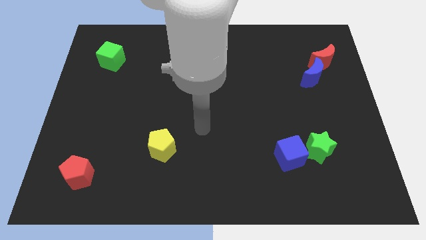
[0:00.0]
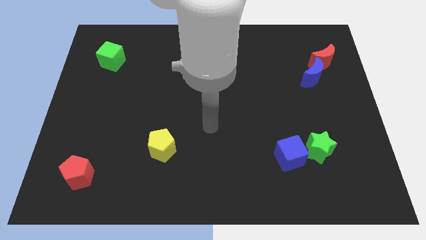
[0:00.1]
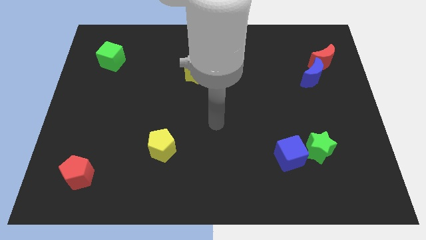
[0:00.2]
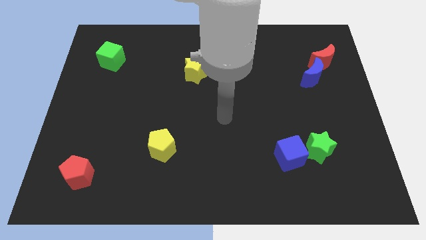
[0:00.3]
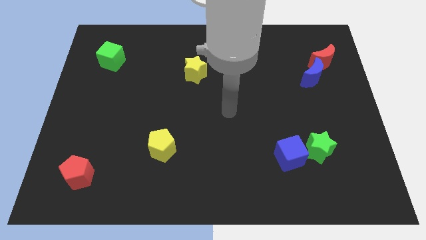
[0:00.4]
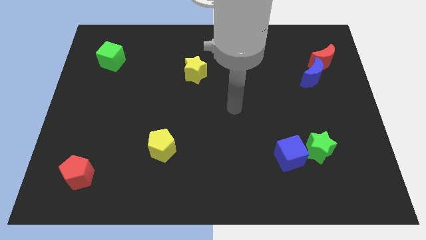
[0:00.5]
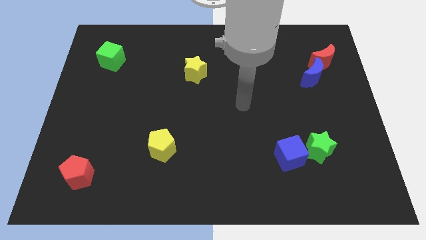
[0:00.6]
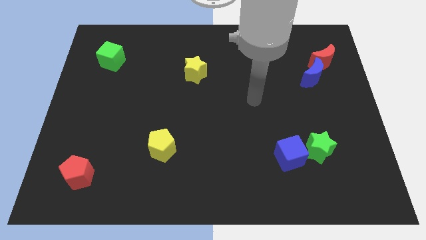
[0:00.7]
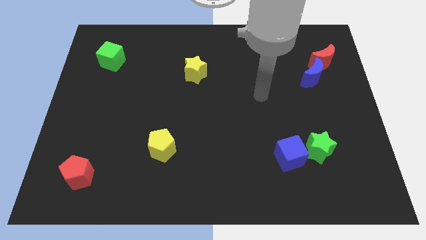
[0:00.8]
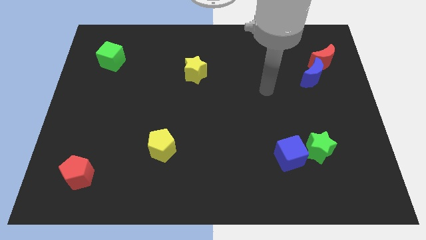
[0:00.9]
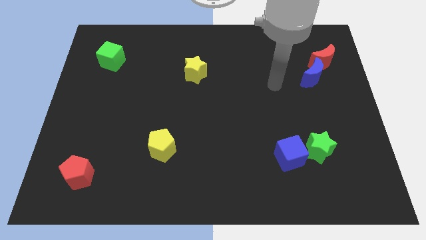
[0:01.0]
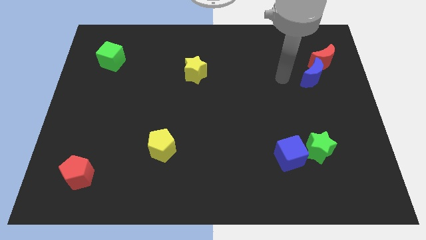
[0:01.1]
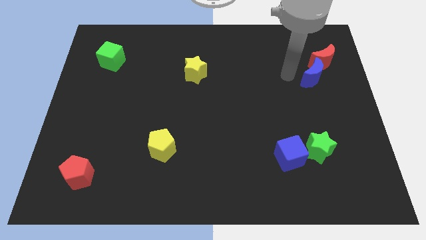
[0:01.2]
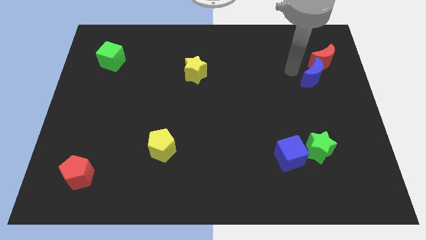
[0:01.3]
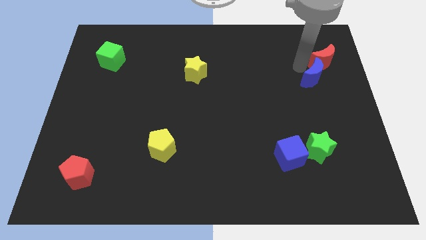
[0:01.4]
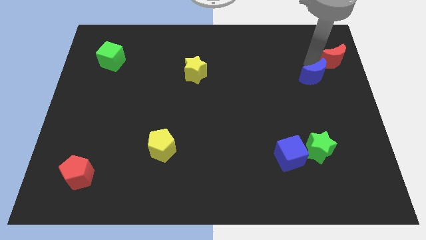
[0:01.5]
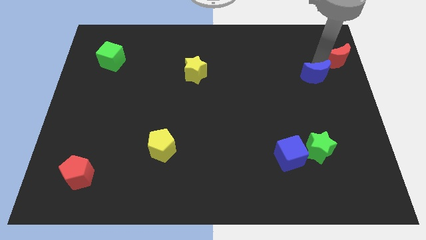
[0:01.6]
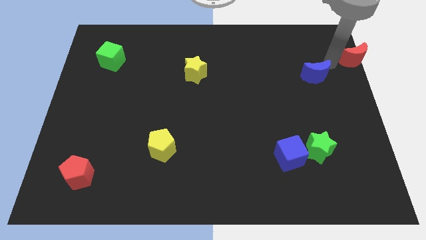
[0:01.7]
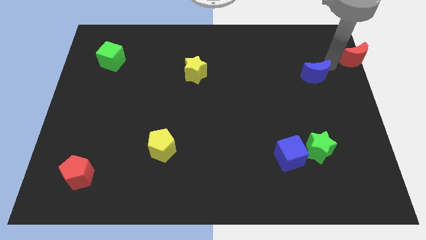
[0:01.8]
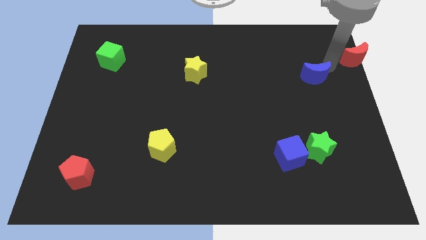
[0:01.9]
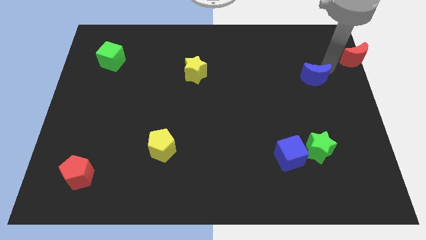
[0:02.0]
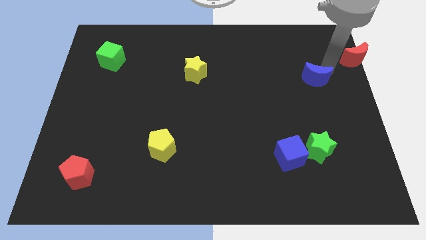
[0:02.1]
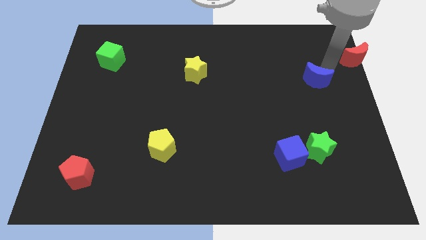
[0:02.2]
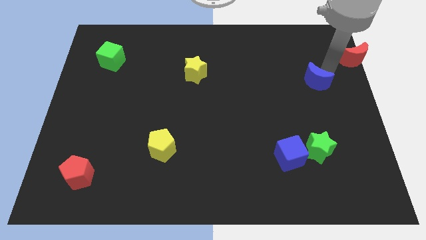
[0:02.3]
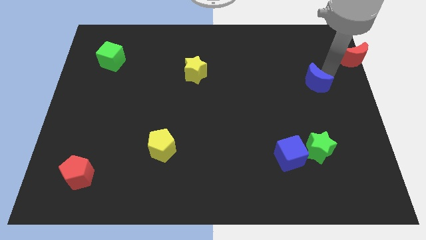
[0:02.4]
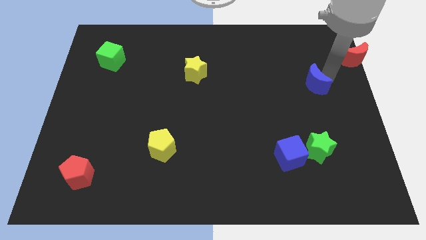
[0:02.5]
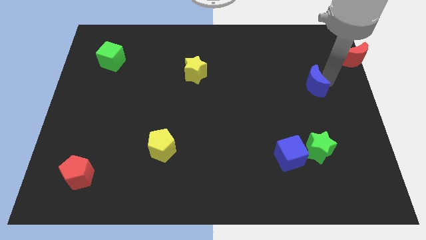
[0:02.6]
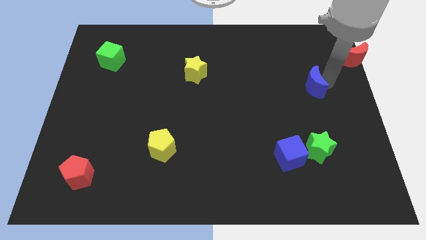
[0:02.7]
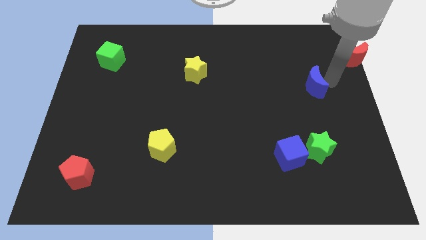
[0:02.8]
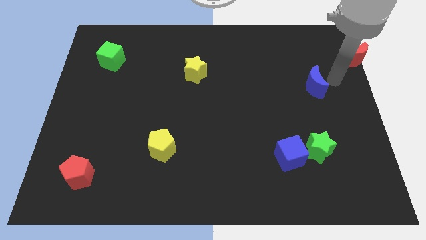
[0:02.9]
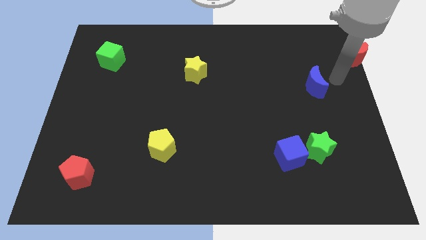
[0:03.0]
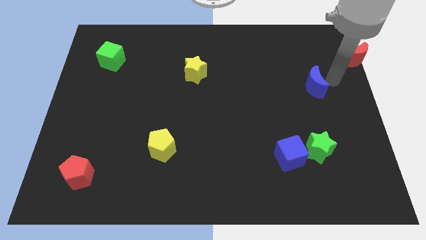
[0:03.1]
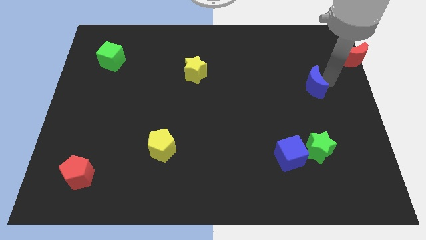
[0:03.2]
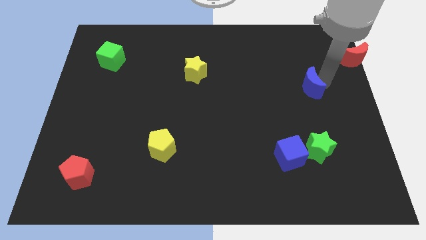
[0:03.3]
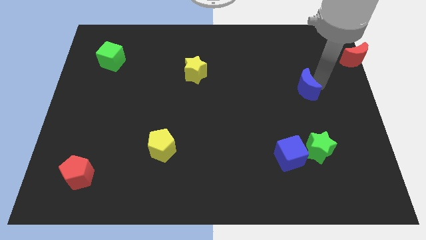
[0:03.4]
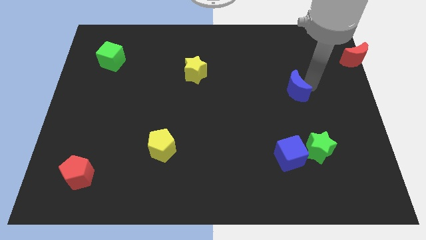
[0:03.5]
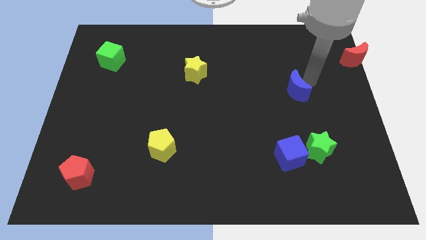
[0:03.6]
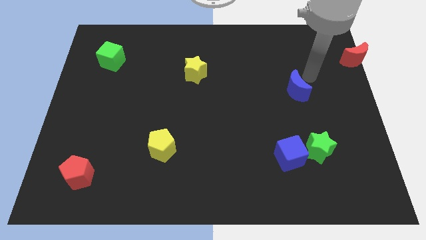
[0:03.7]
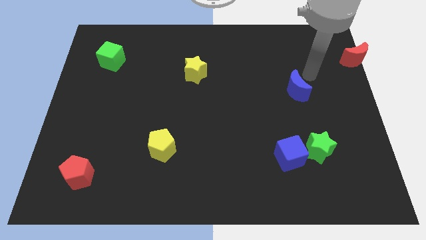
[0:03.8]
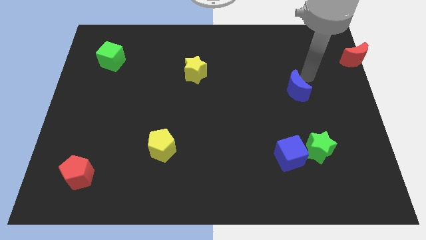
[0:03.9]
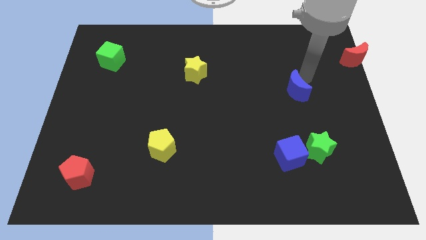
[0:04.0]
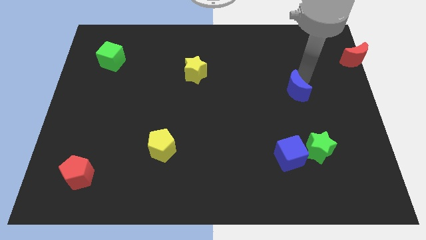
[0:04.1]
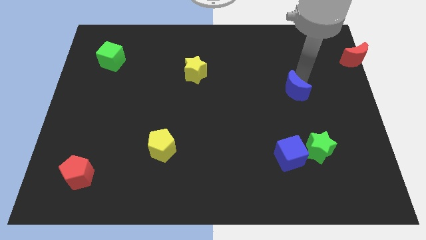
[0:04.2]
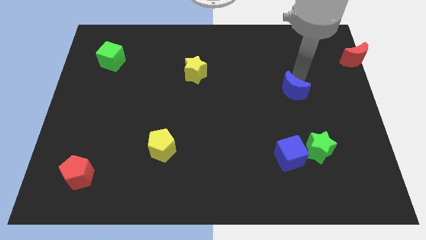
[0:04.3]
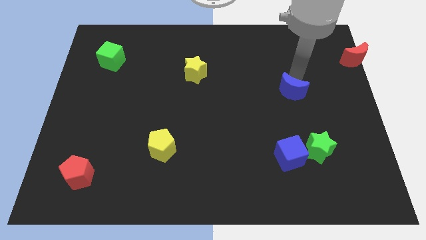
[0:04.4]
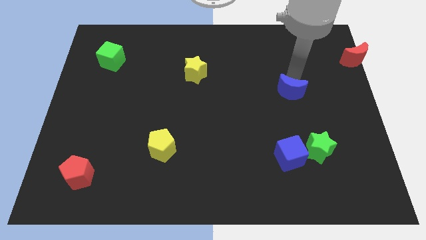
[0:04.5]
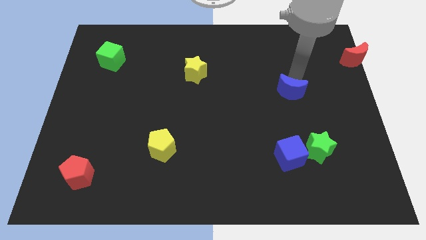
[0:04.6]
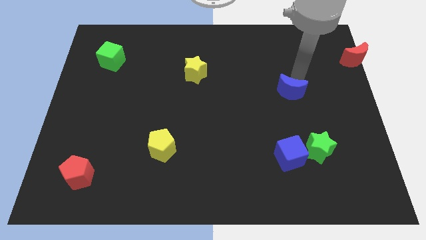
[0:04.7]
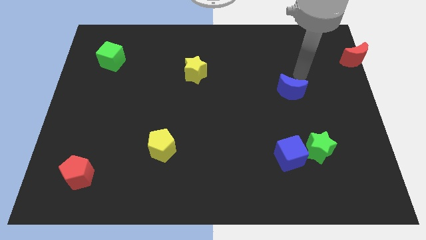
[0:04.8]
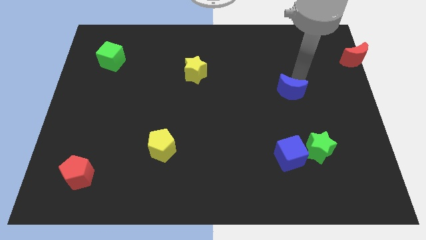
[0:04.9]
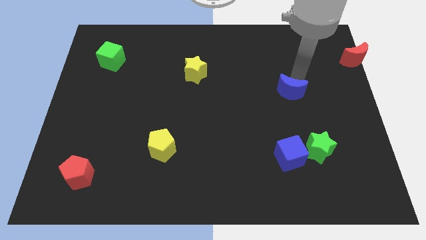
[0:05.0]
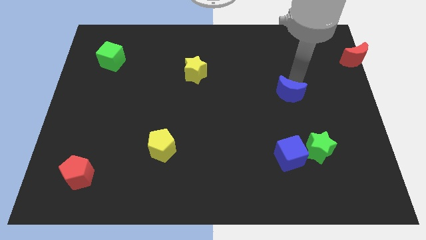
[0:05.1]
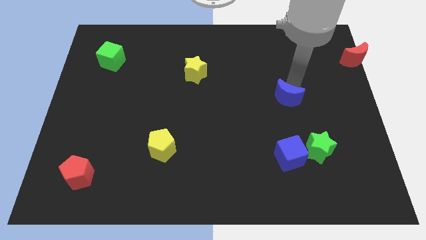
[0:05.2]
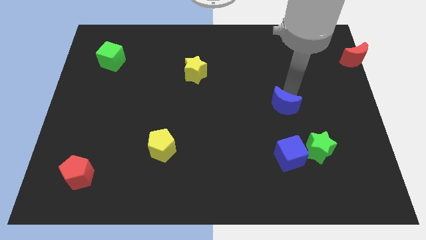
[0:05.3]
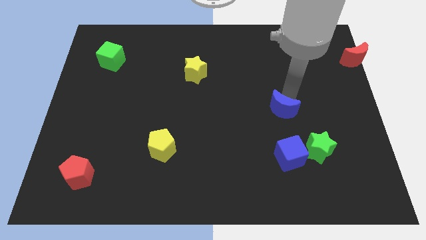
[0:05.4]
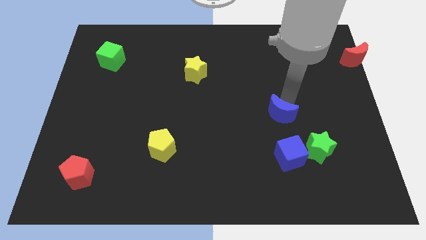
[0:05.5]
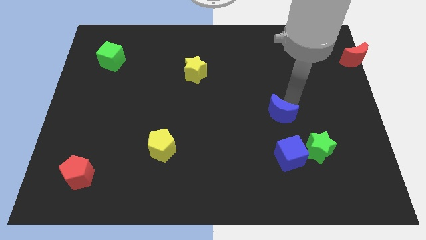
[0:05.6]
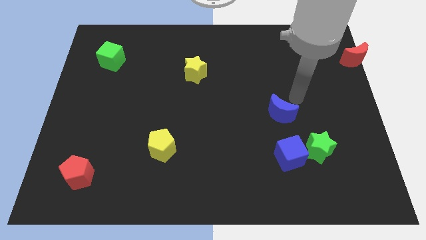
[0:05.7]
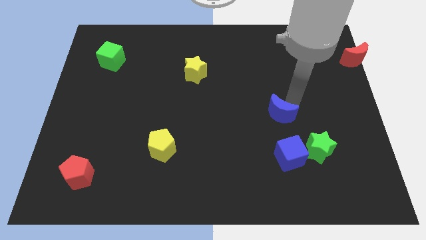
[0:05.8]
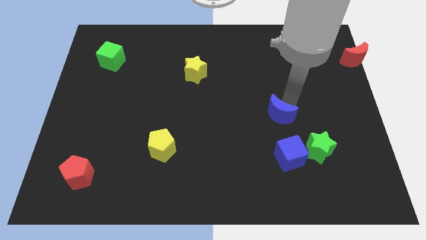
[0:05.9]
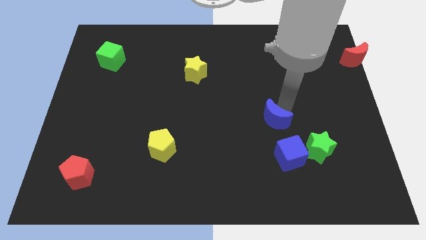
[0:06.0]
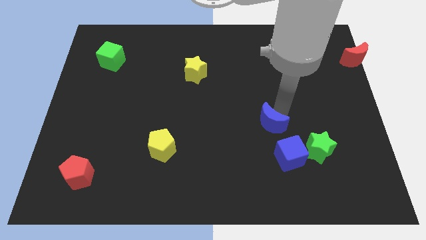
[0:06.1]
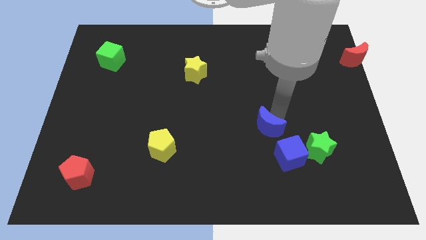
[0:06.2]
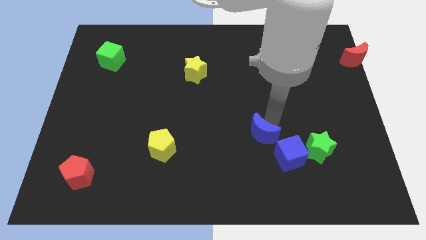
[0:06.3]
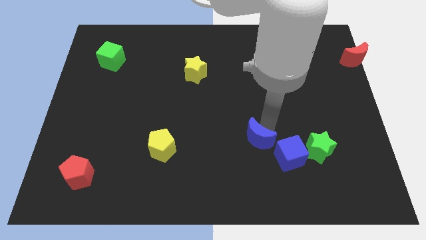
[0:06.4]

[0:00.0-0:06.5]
move the blue moon to the left side of the blue cube
